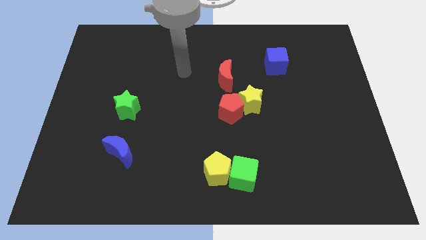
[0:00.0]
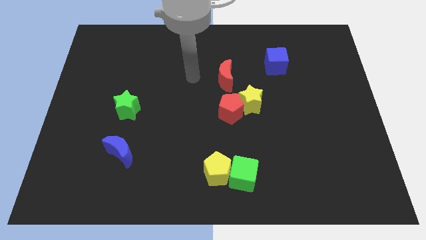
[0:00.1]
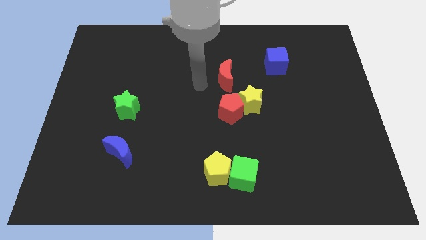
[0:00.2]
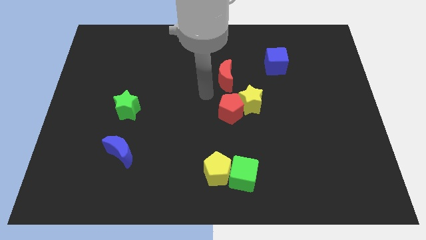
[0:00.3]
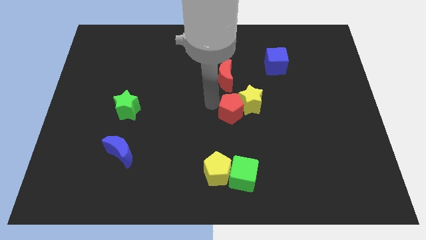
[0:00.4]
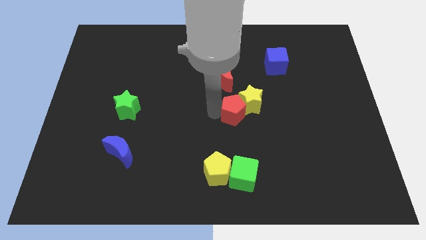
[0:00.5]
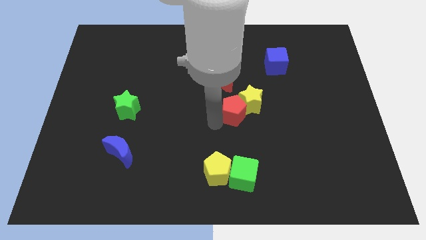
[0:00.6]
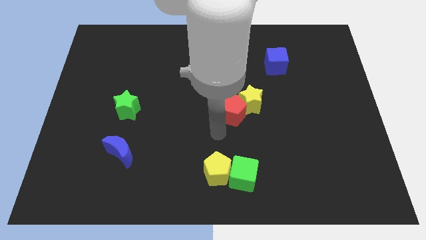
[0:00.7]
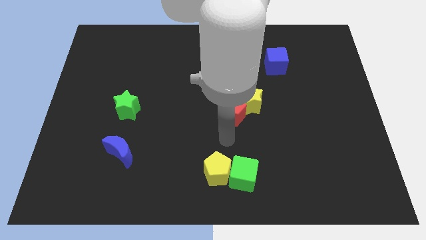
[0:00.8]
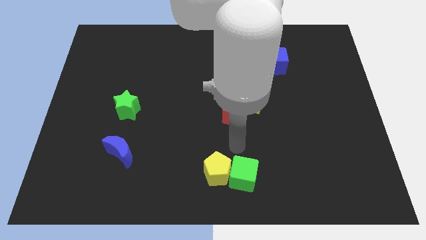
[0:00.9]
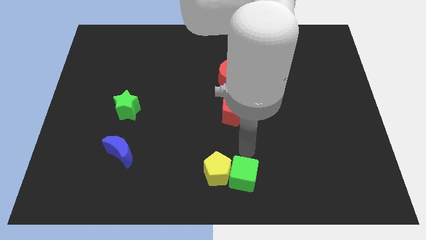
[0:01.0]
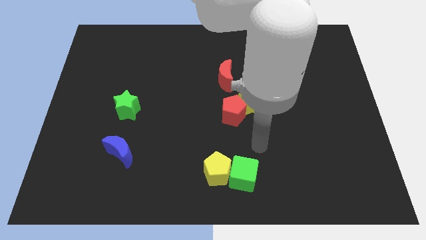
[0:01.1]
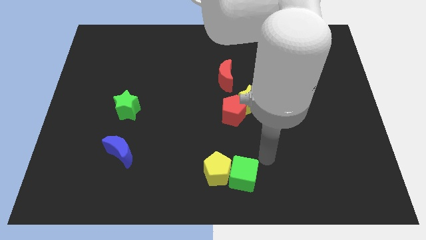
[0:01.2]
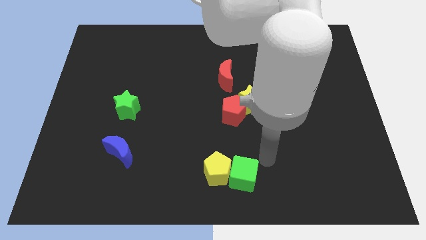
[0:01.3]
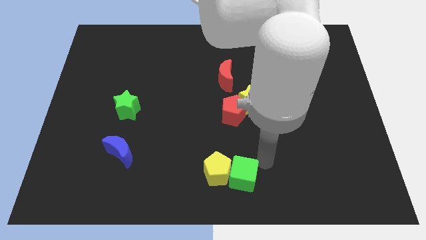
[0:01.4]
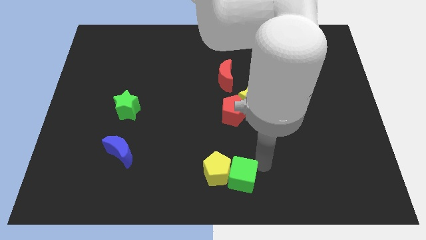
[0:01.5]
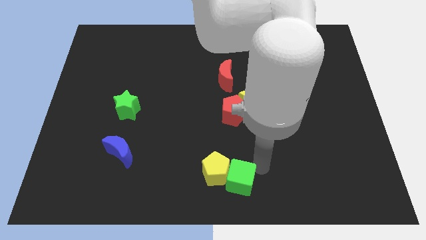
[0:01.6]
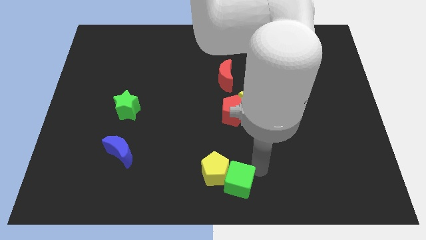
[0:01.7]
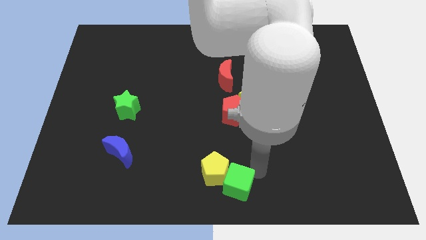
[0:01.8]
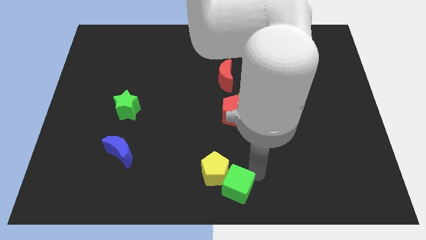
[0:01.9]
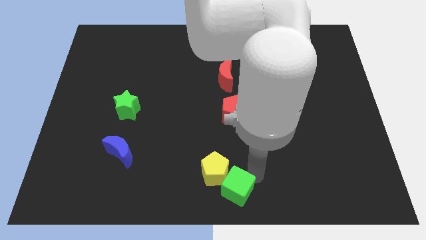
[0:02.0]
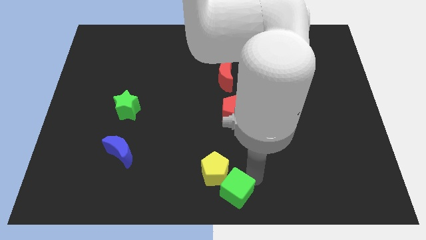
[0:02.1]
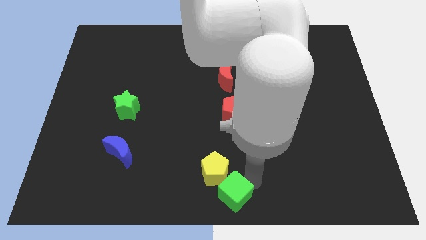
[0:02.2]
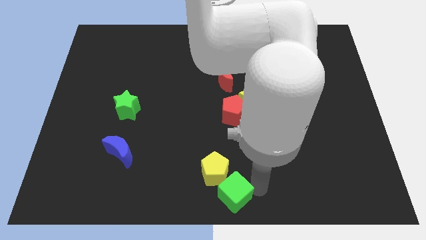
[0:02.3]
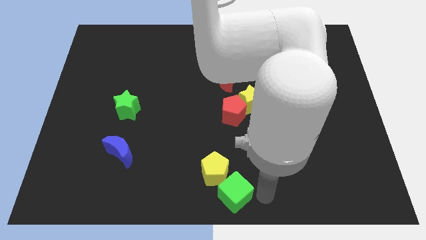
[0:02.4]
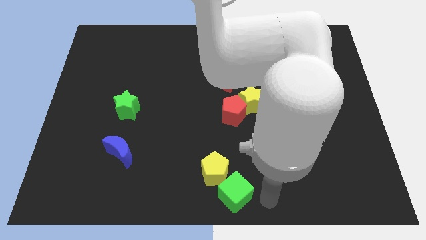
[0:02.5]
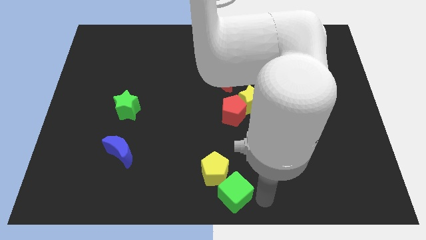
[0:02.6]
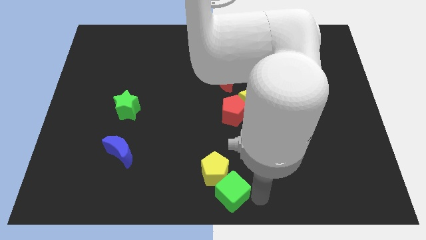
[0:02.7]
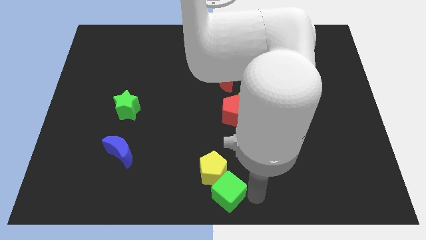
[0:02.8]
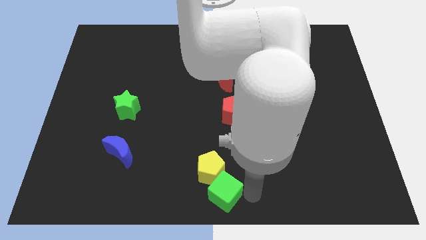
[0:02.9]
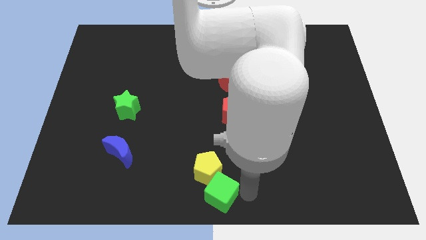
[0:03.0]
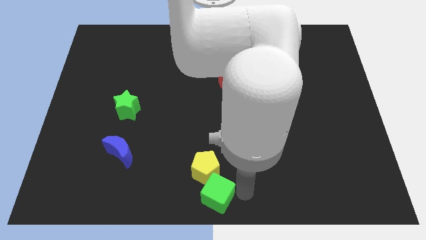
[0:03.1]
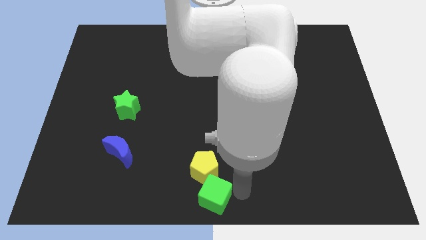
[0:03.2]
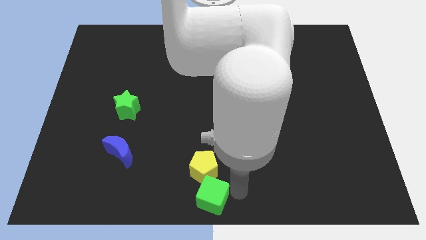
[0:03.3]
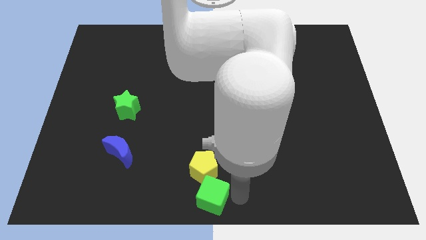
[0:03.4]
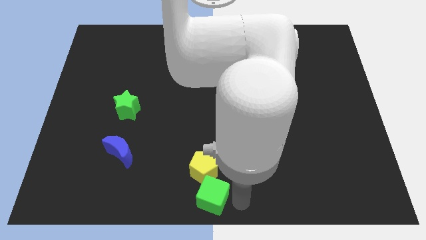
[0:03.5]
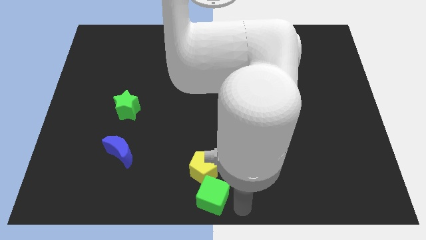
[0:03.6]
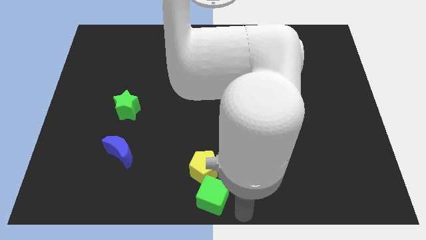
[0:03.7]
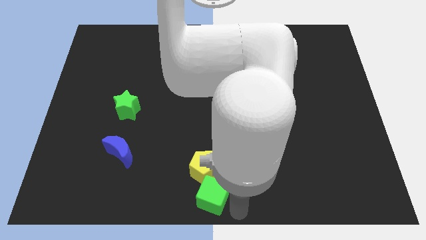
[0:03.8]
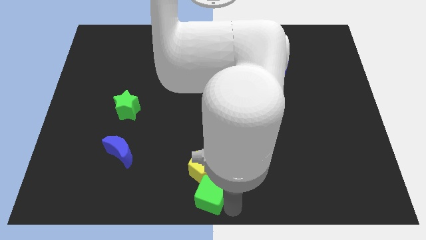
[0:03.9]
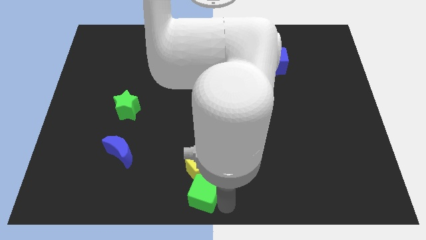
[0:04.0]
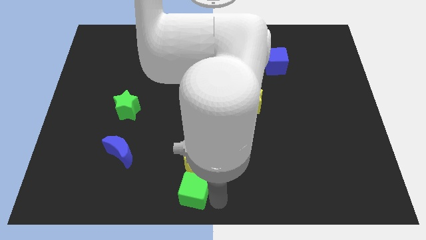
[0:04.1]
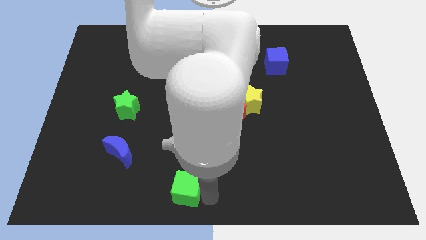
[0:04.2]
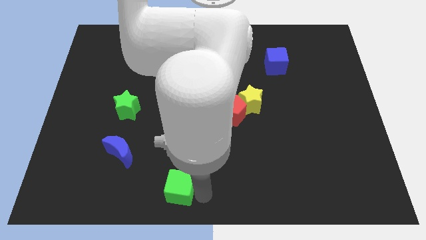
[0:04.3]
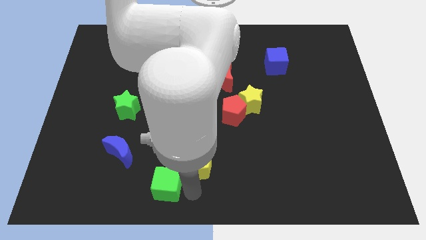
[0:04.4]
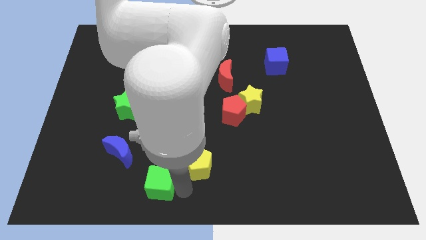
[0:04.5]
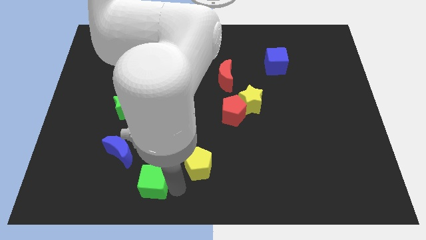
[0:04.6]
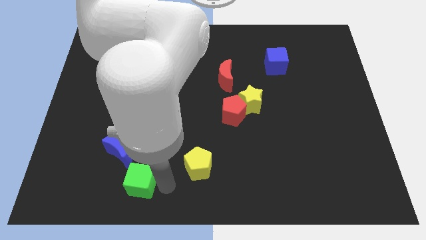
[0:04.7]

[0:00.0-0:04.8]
move the green cube to the left

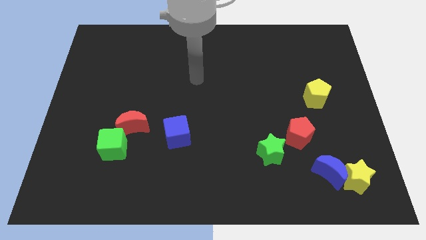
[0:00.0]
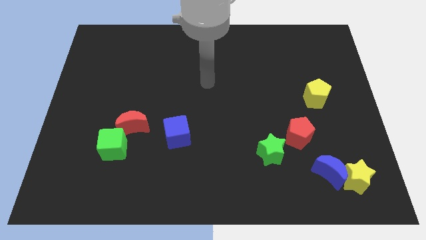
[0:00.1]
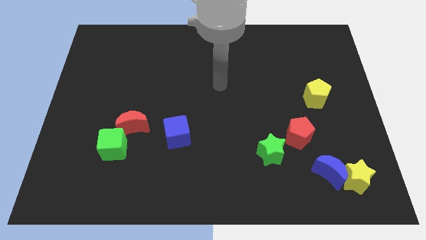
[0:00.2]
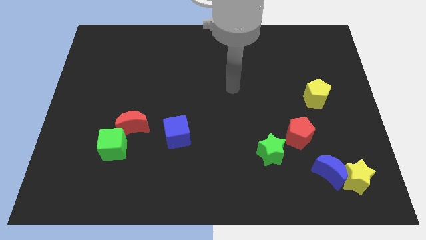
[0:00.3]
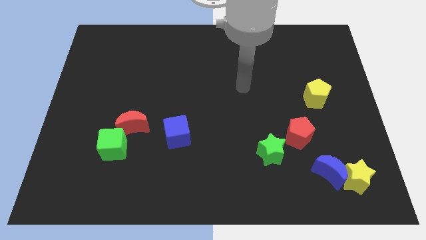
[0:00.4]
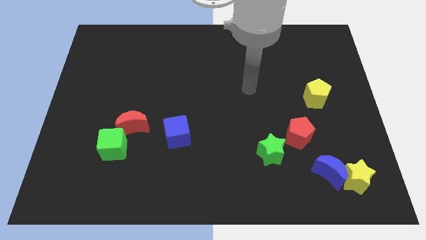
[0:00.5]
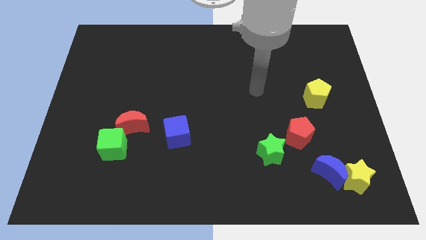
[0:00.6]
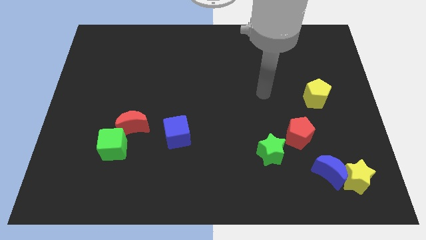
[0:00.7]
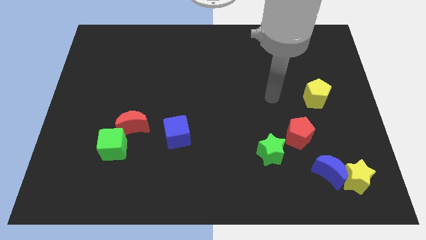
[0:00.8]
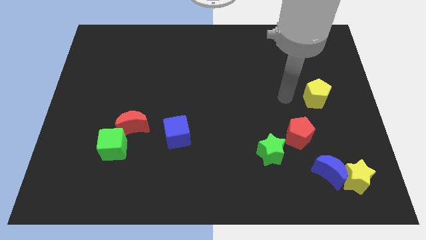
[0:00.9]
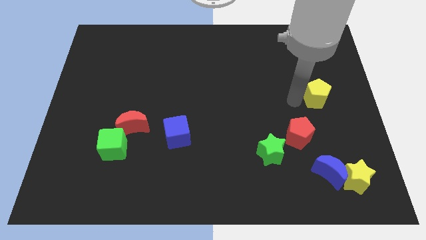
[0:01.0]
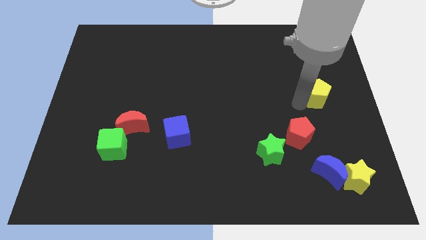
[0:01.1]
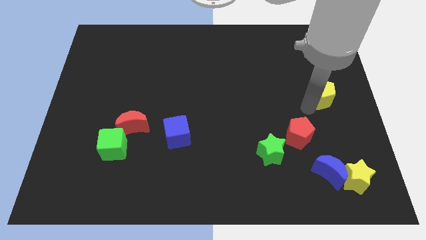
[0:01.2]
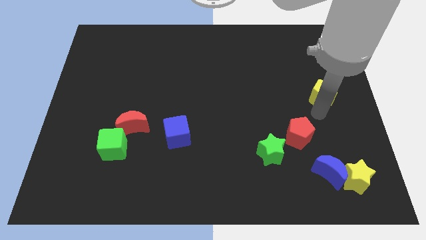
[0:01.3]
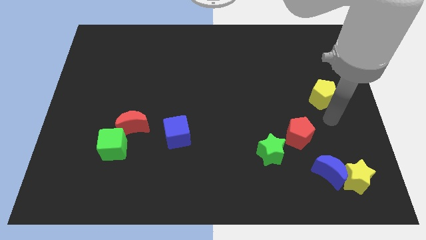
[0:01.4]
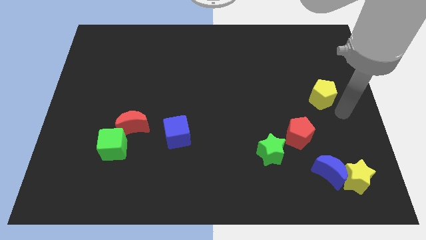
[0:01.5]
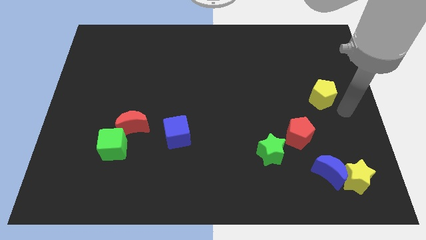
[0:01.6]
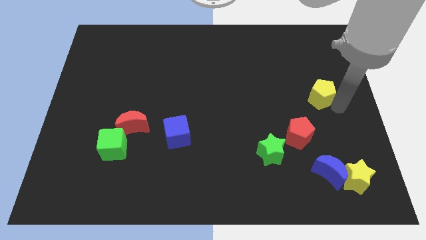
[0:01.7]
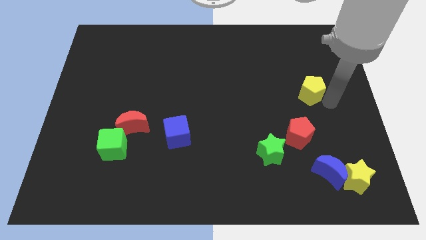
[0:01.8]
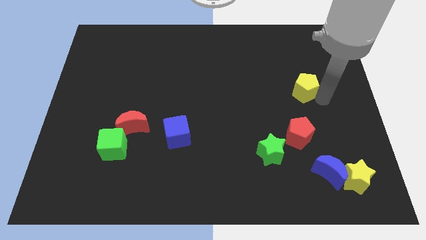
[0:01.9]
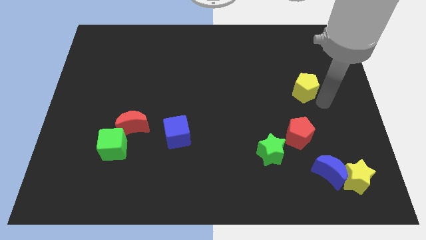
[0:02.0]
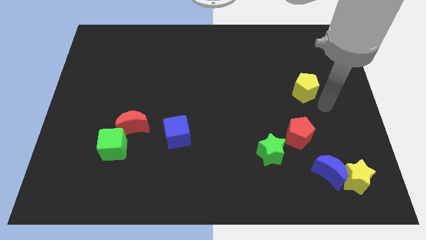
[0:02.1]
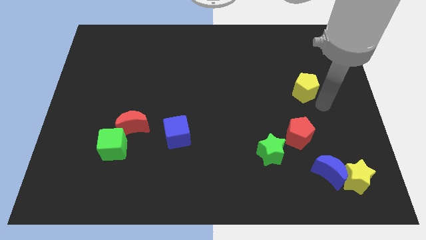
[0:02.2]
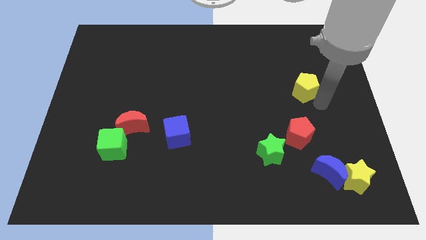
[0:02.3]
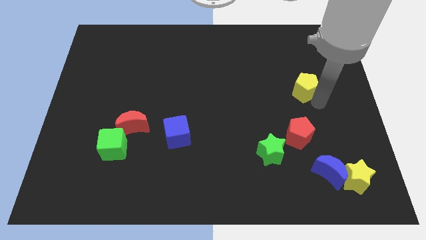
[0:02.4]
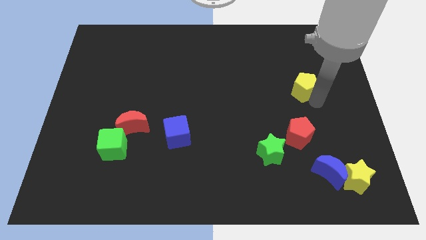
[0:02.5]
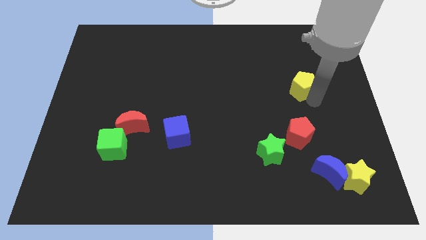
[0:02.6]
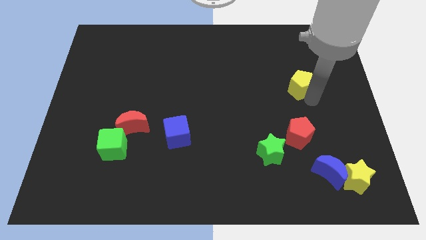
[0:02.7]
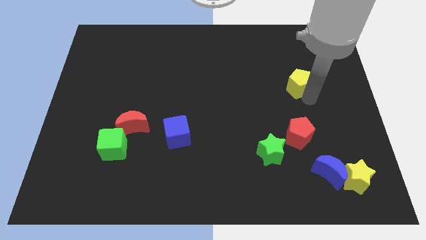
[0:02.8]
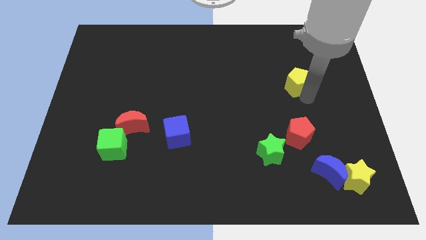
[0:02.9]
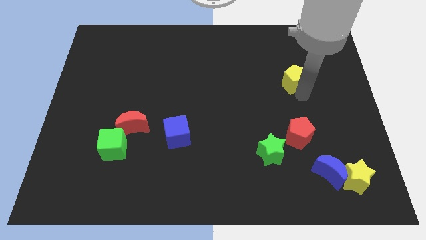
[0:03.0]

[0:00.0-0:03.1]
slightly move the yellow pentagon diagonally up and left
